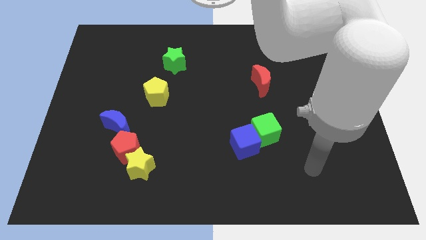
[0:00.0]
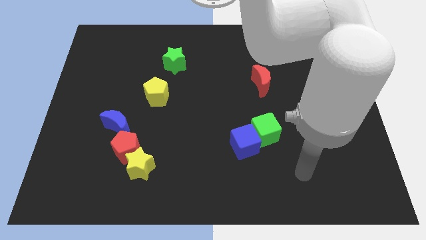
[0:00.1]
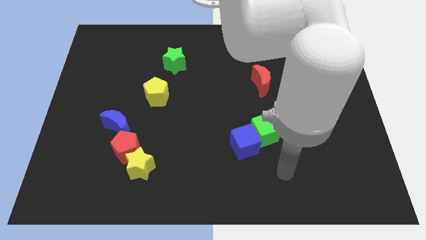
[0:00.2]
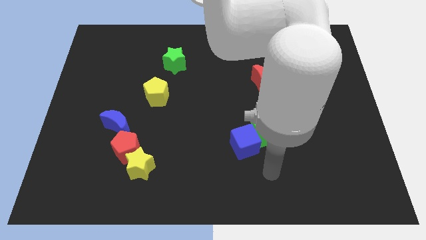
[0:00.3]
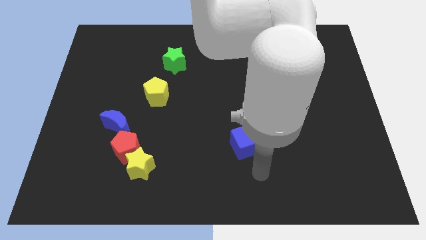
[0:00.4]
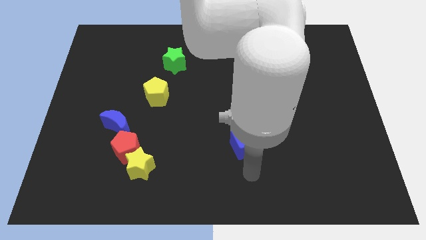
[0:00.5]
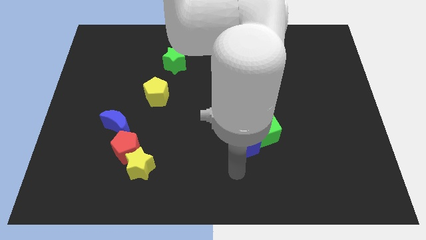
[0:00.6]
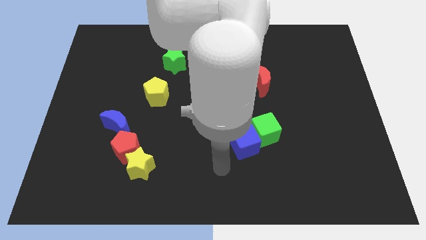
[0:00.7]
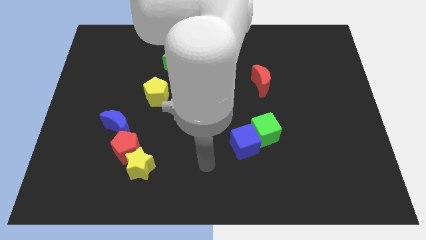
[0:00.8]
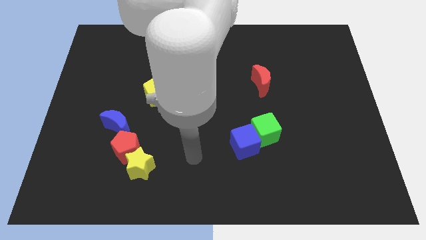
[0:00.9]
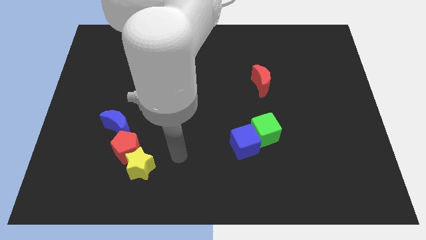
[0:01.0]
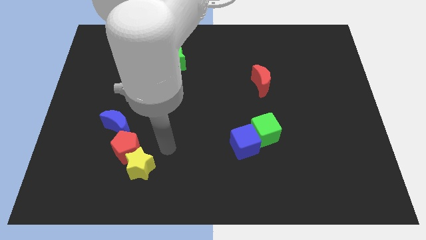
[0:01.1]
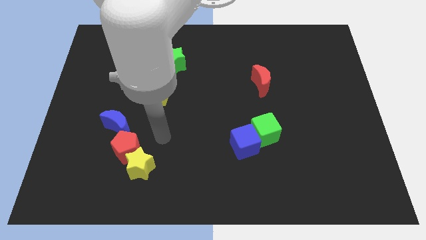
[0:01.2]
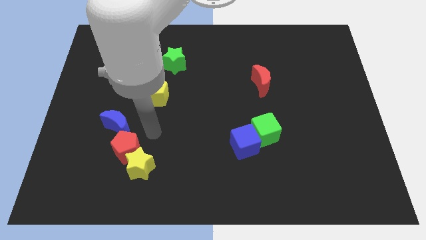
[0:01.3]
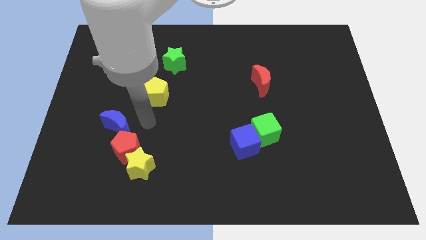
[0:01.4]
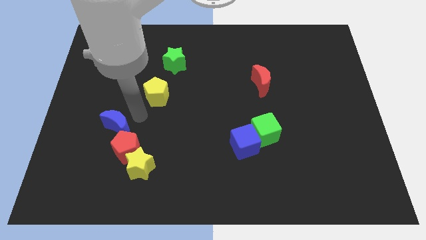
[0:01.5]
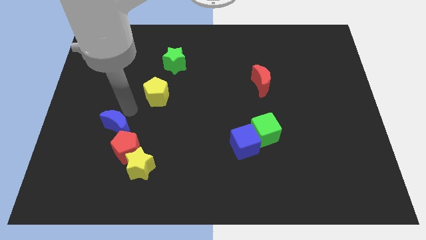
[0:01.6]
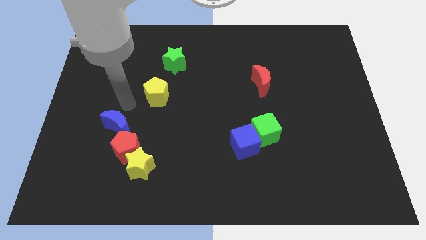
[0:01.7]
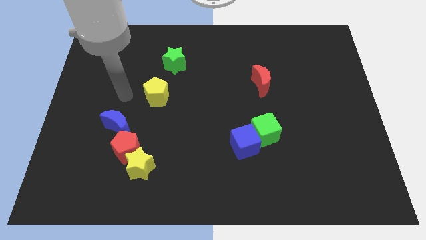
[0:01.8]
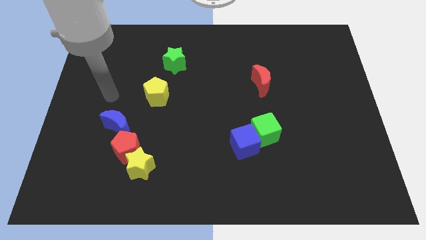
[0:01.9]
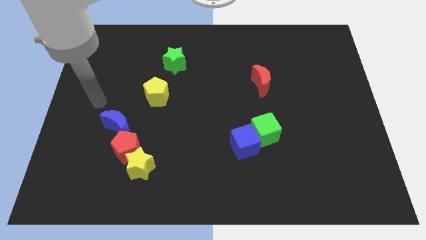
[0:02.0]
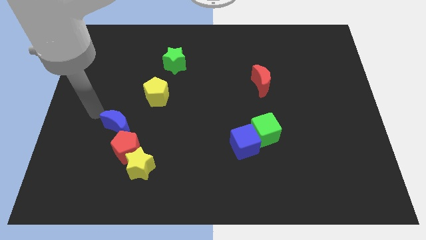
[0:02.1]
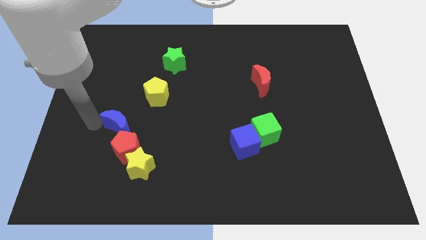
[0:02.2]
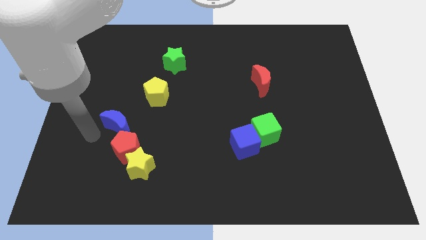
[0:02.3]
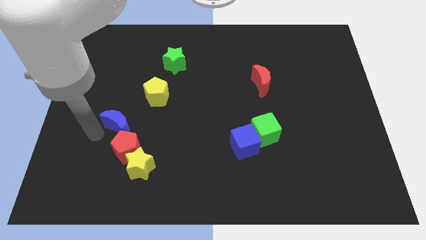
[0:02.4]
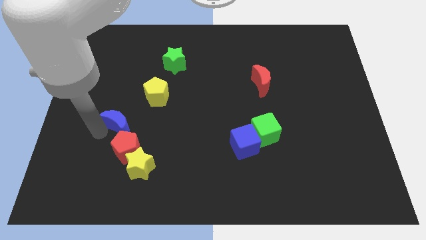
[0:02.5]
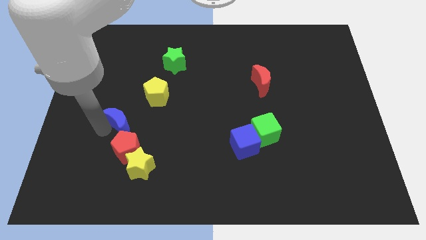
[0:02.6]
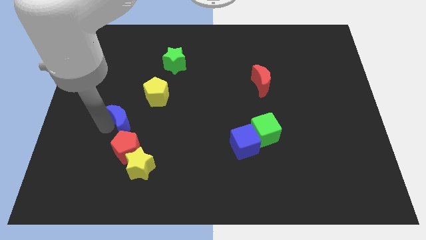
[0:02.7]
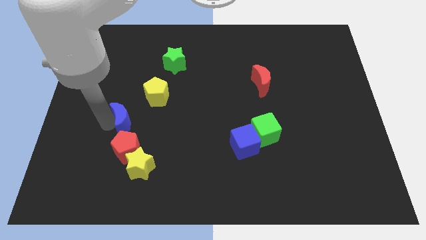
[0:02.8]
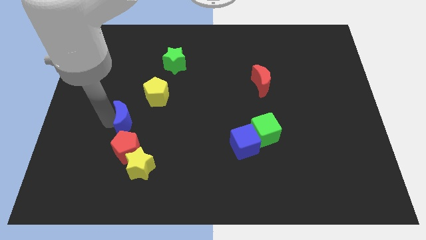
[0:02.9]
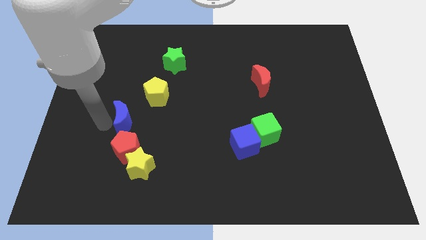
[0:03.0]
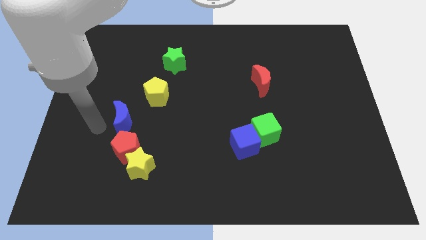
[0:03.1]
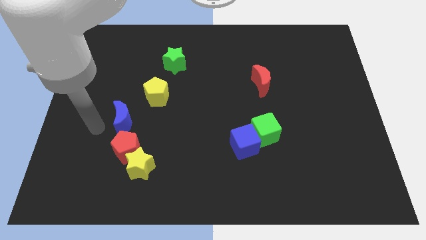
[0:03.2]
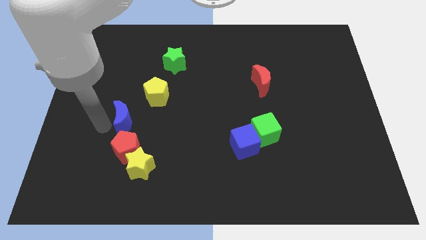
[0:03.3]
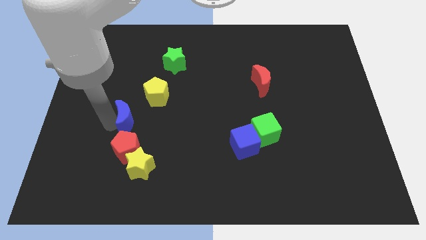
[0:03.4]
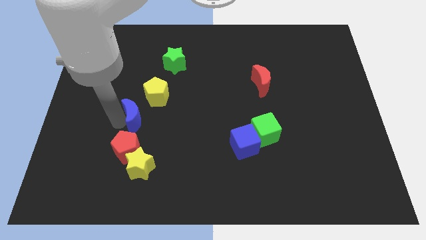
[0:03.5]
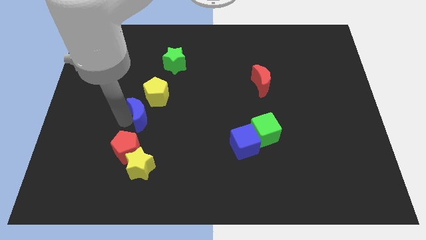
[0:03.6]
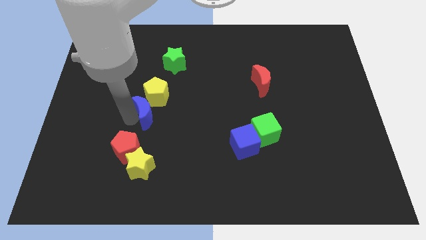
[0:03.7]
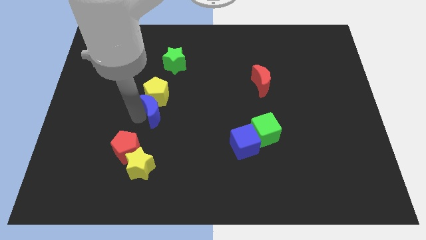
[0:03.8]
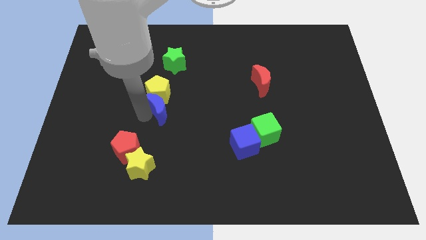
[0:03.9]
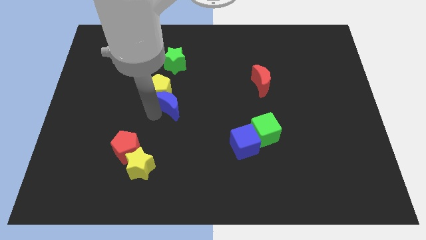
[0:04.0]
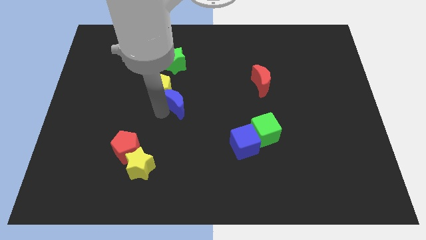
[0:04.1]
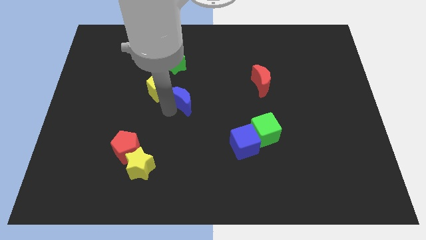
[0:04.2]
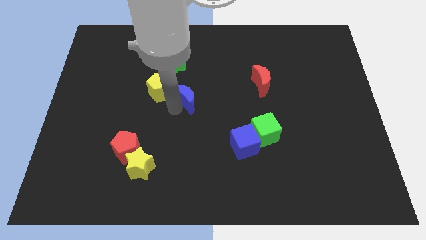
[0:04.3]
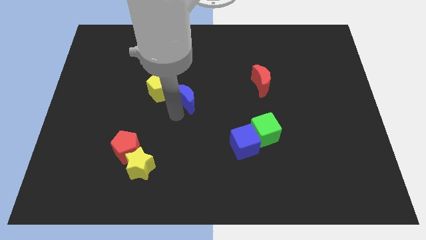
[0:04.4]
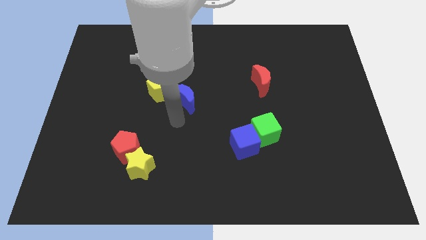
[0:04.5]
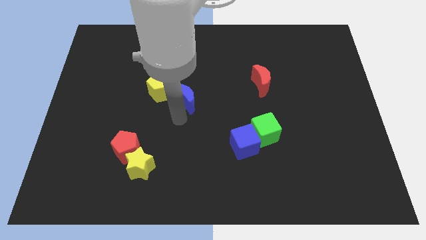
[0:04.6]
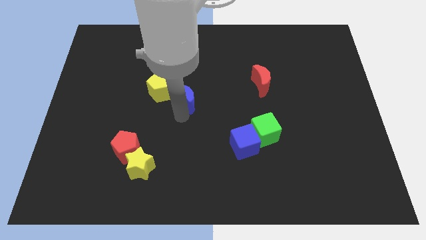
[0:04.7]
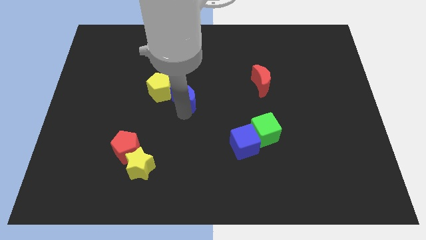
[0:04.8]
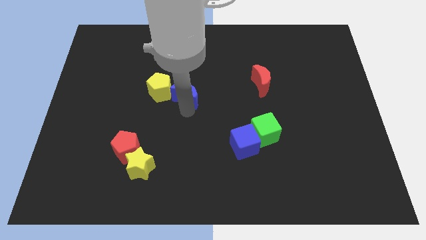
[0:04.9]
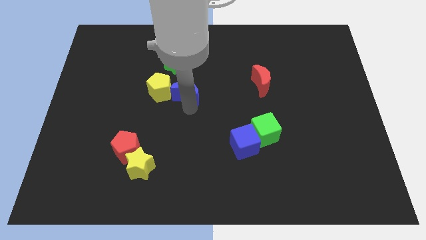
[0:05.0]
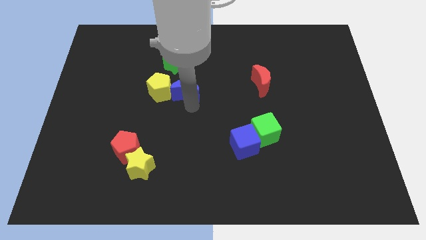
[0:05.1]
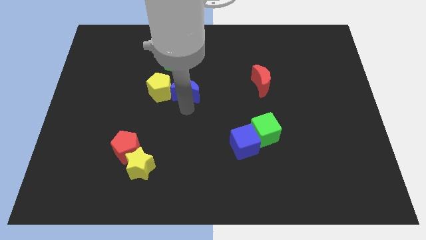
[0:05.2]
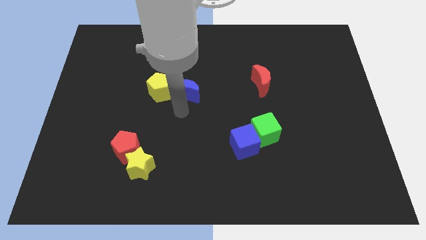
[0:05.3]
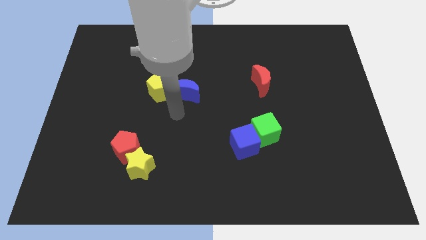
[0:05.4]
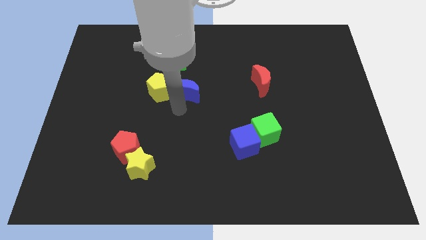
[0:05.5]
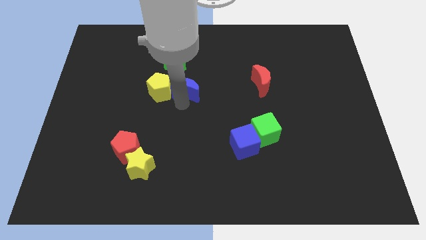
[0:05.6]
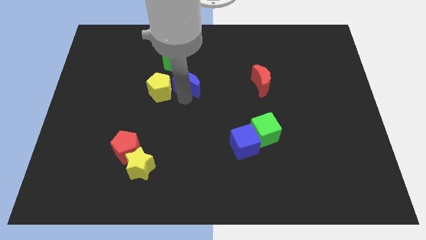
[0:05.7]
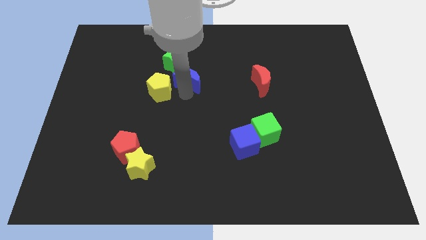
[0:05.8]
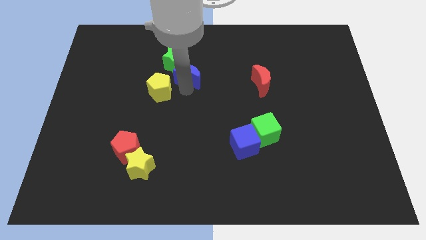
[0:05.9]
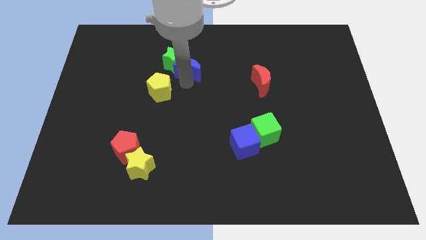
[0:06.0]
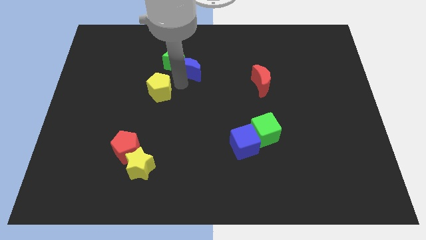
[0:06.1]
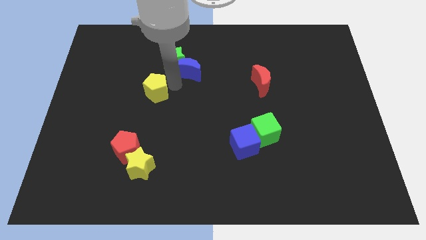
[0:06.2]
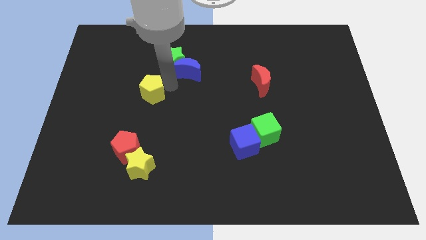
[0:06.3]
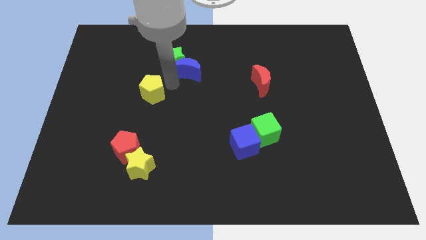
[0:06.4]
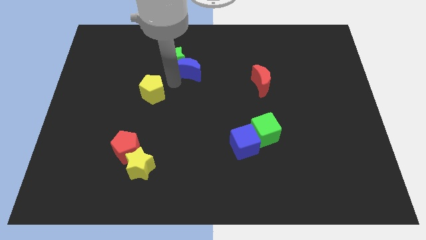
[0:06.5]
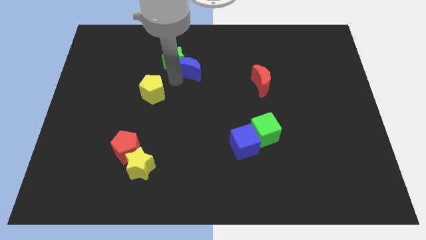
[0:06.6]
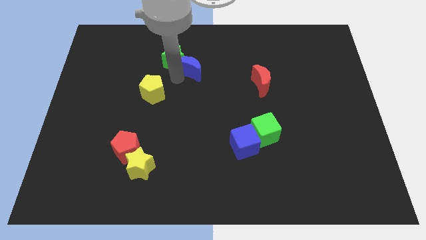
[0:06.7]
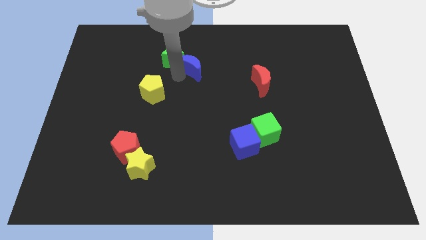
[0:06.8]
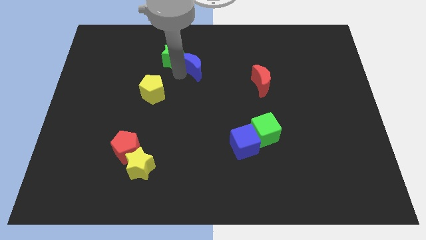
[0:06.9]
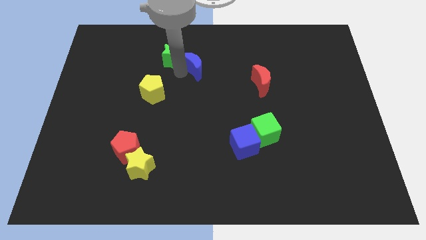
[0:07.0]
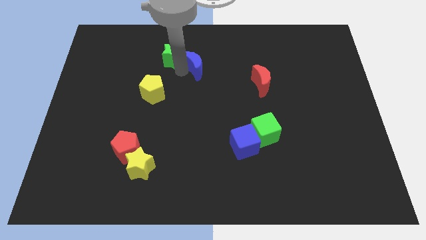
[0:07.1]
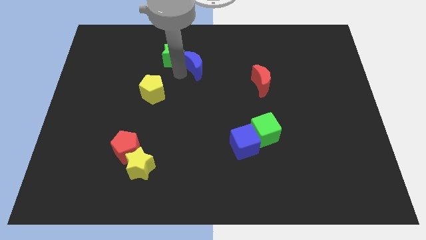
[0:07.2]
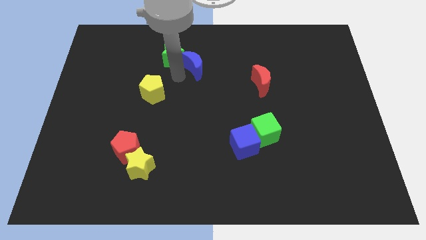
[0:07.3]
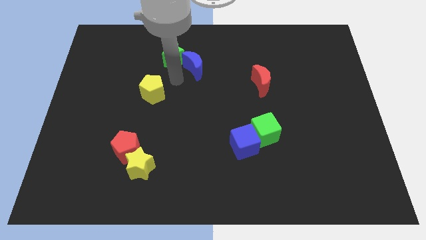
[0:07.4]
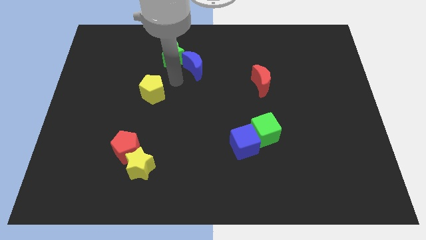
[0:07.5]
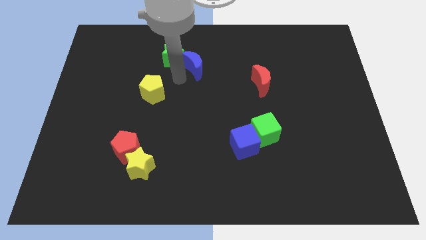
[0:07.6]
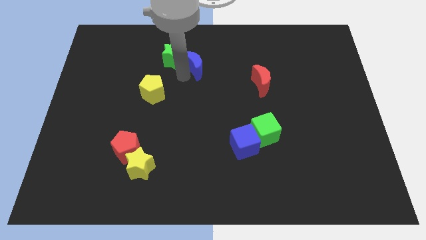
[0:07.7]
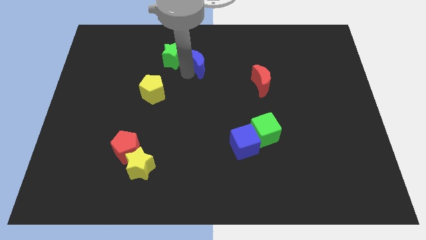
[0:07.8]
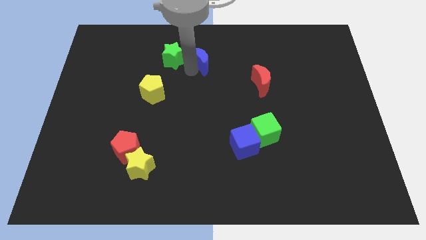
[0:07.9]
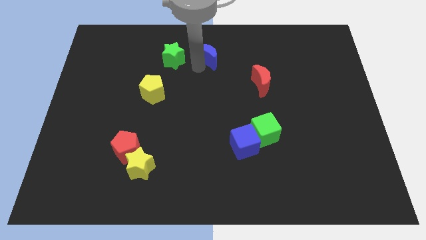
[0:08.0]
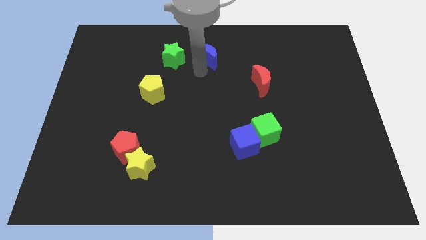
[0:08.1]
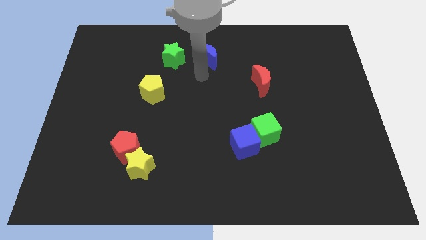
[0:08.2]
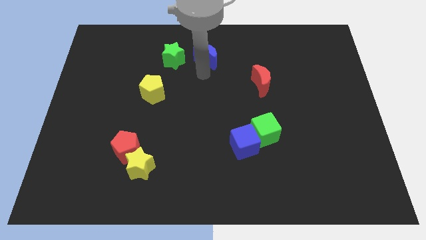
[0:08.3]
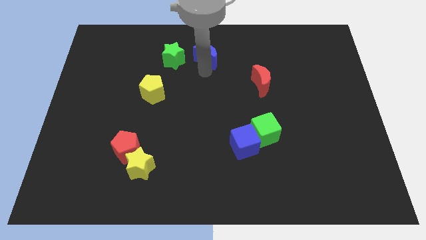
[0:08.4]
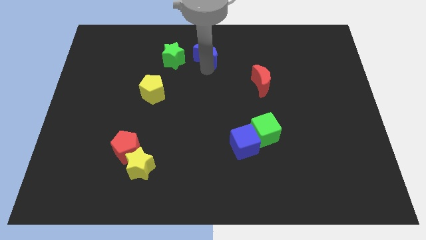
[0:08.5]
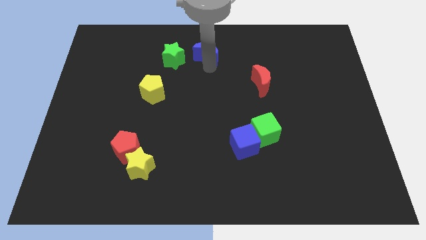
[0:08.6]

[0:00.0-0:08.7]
push the blue moon to the top side
